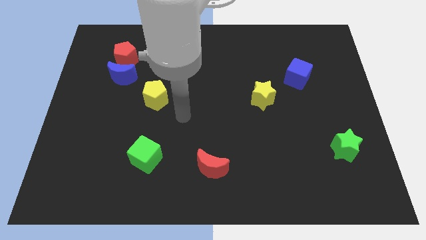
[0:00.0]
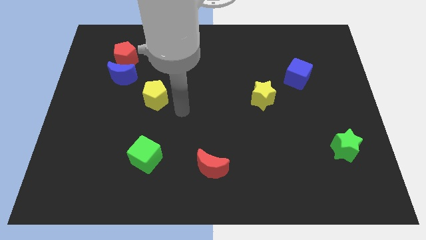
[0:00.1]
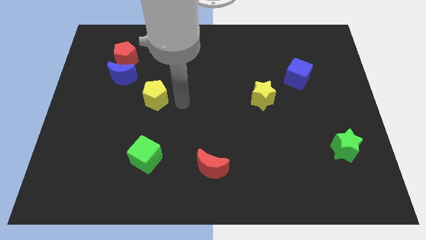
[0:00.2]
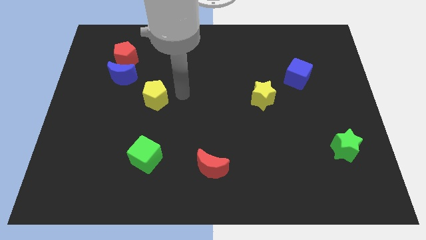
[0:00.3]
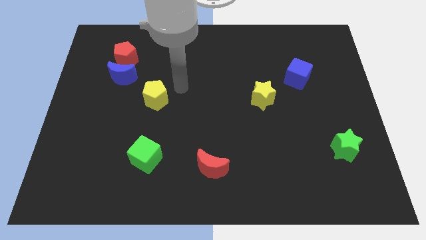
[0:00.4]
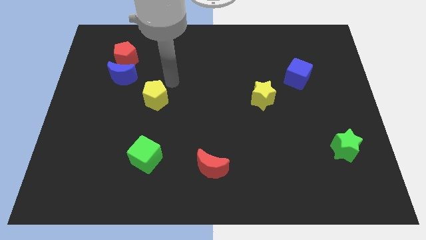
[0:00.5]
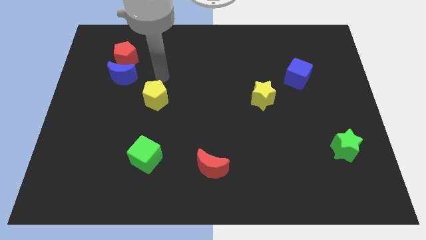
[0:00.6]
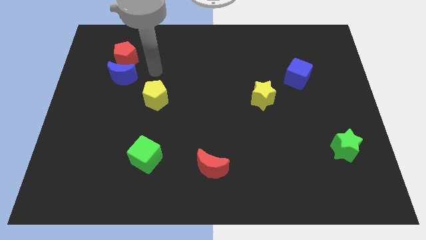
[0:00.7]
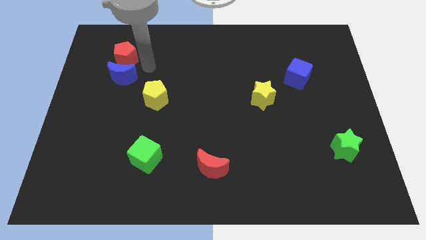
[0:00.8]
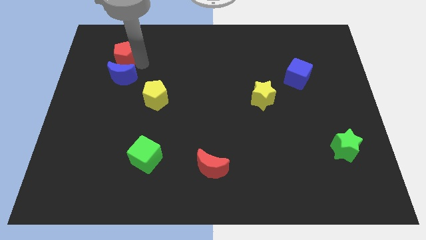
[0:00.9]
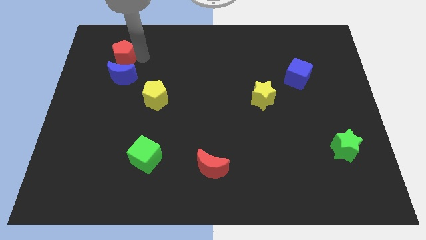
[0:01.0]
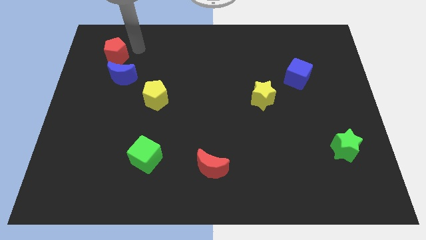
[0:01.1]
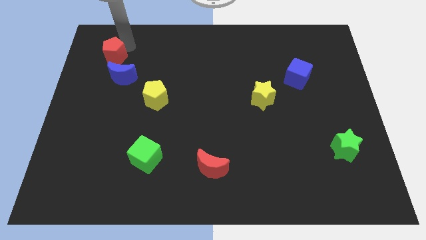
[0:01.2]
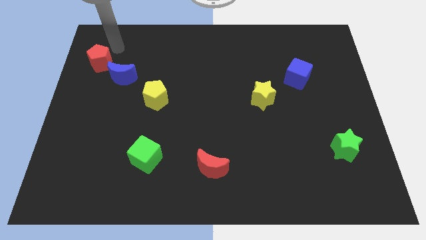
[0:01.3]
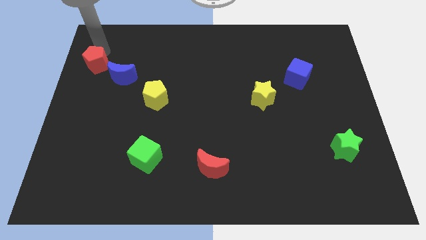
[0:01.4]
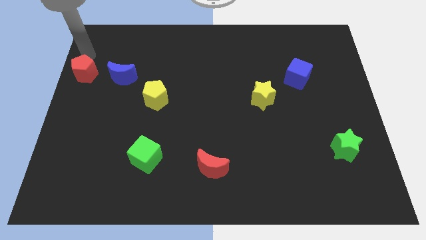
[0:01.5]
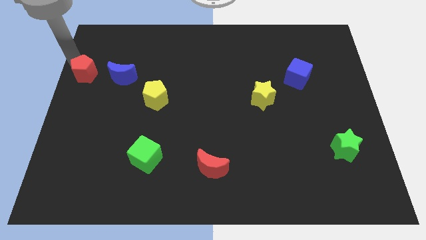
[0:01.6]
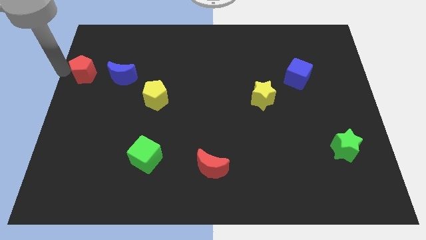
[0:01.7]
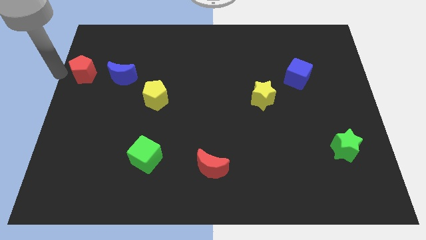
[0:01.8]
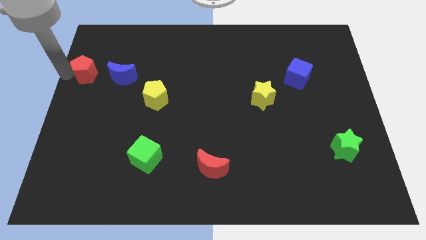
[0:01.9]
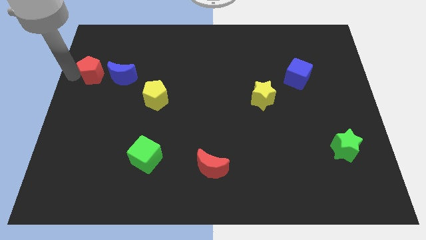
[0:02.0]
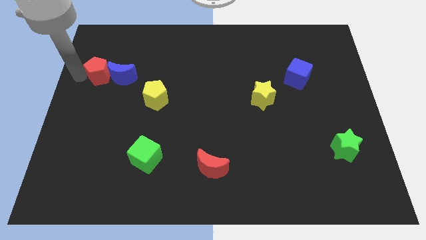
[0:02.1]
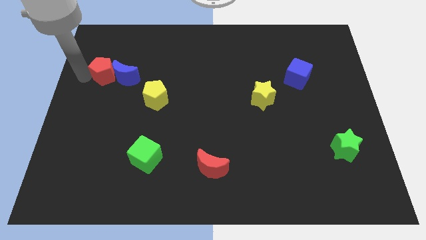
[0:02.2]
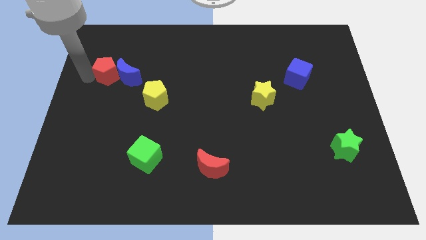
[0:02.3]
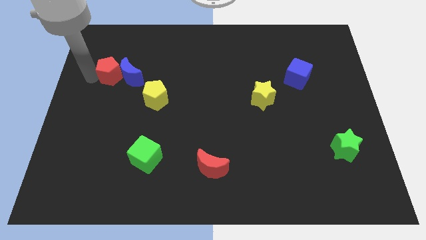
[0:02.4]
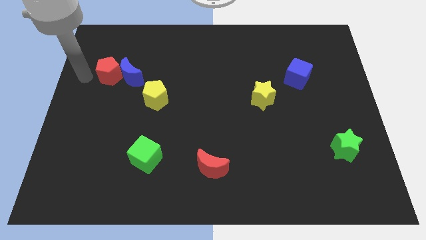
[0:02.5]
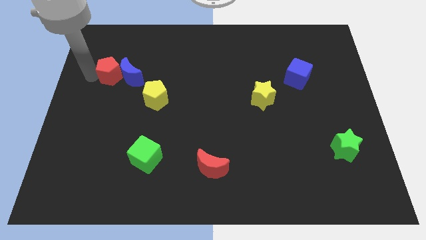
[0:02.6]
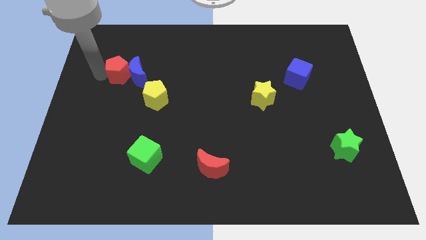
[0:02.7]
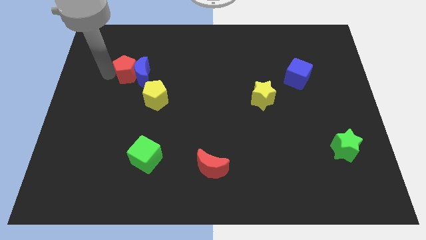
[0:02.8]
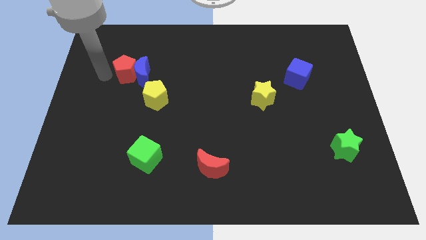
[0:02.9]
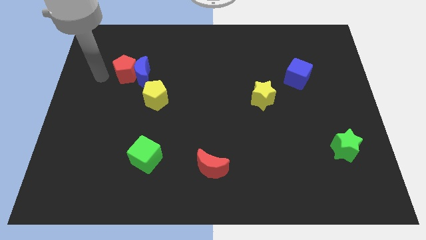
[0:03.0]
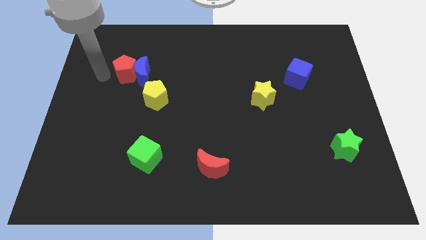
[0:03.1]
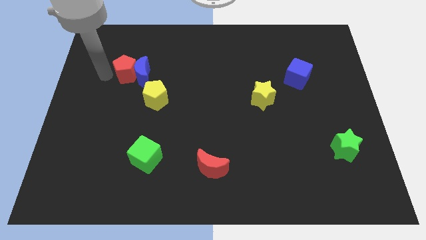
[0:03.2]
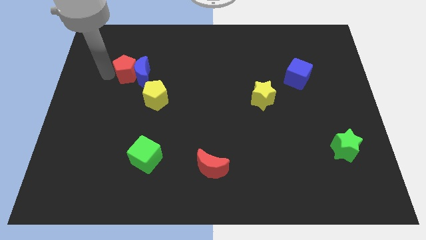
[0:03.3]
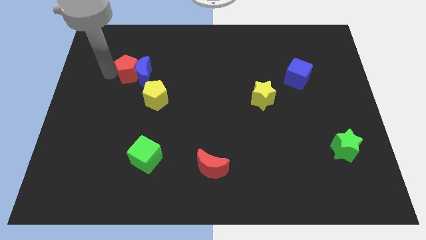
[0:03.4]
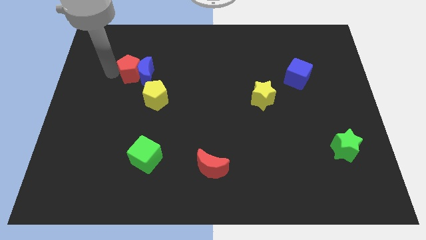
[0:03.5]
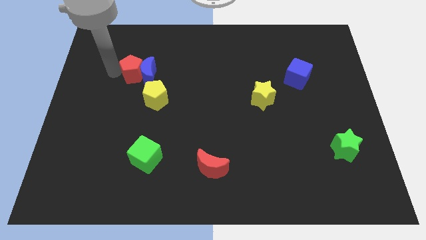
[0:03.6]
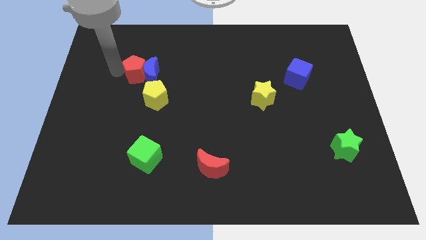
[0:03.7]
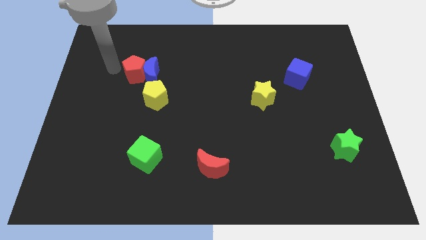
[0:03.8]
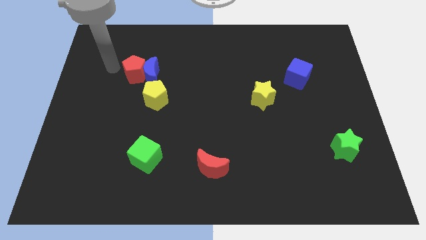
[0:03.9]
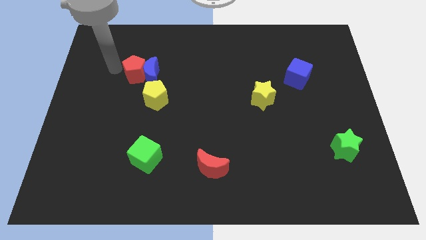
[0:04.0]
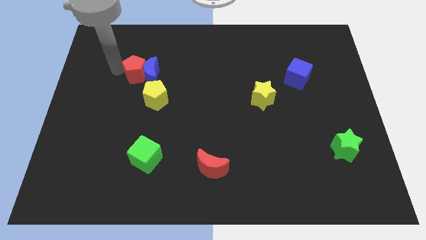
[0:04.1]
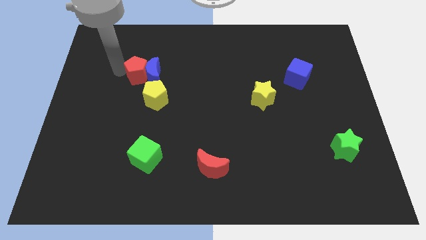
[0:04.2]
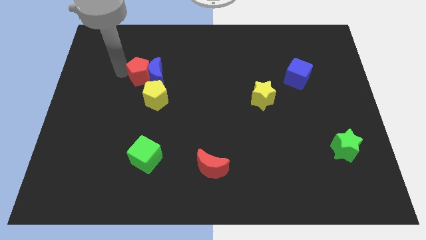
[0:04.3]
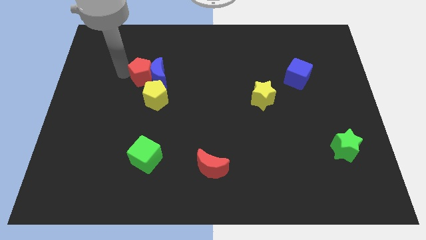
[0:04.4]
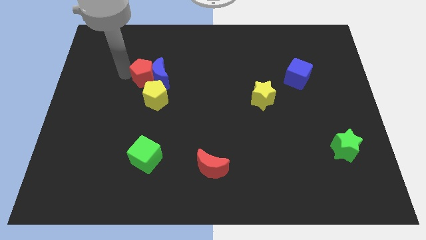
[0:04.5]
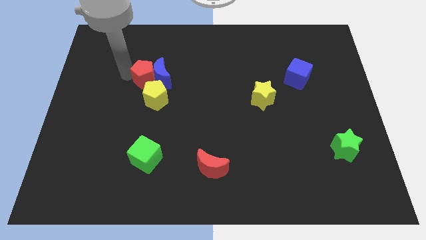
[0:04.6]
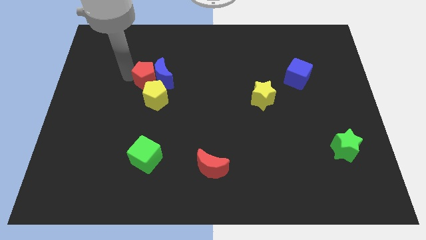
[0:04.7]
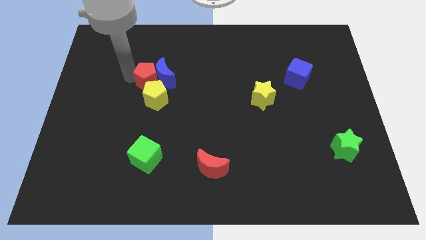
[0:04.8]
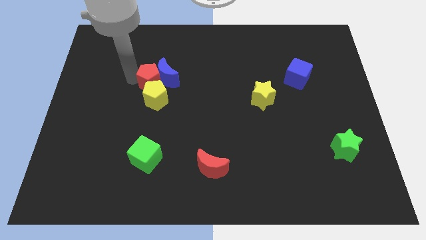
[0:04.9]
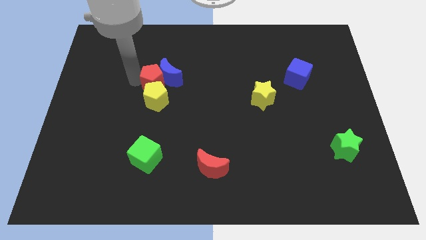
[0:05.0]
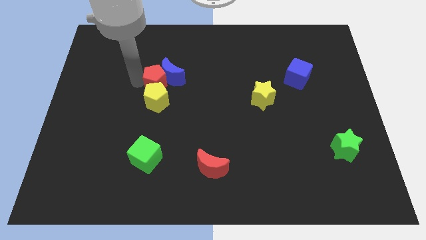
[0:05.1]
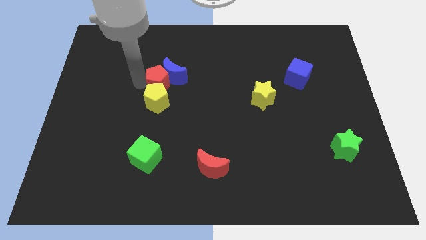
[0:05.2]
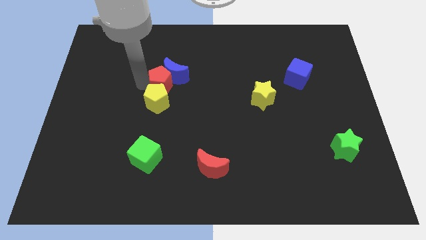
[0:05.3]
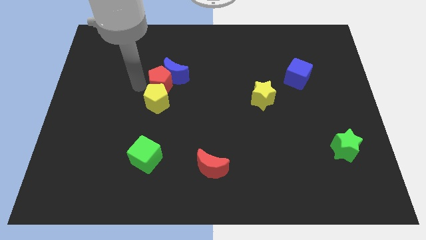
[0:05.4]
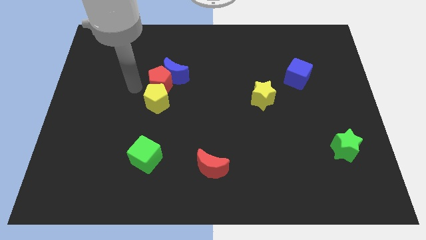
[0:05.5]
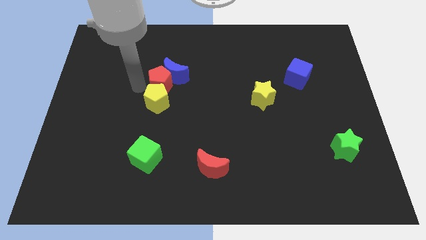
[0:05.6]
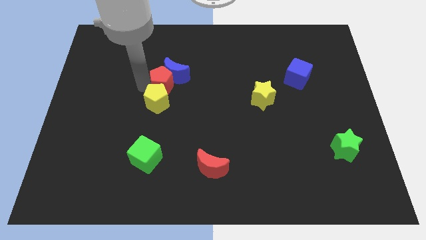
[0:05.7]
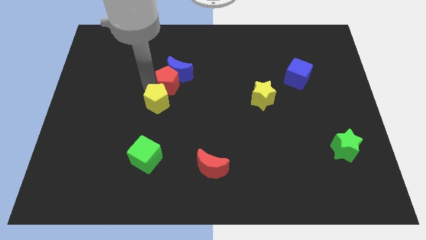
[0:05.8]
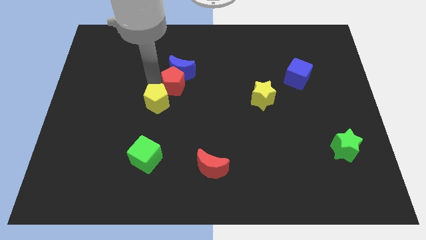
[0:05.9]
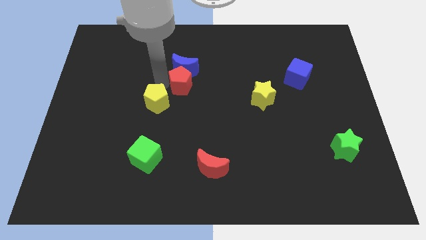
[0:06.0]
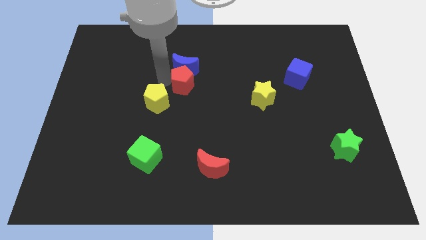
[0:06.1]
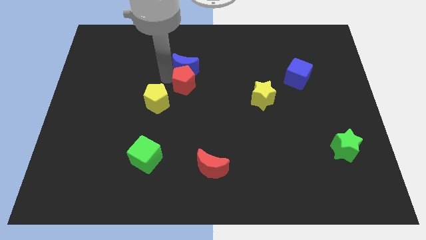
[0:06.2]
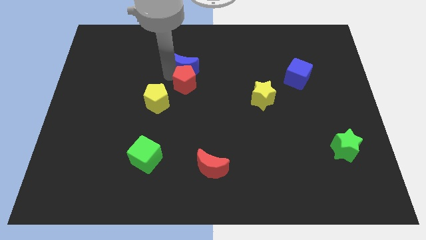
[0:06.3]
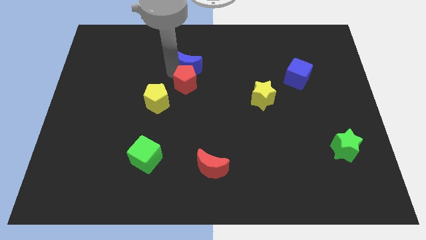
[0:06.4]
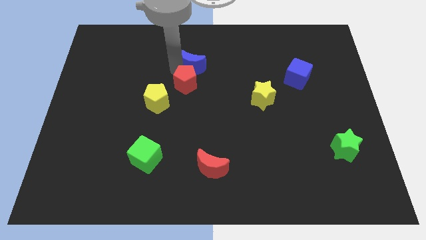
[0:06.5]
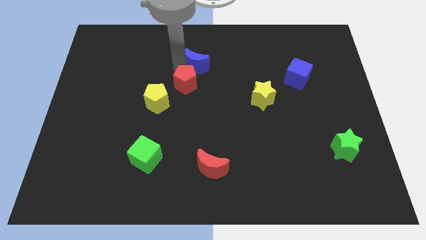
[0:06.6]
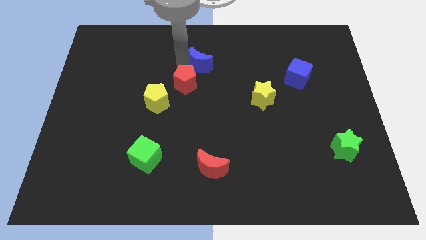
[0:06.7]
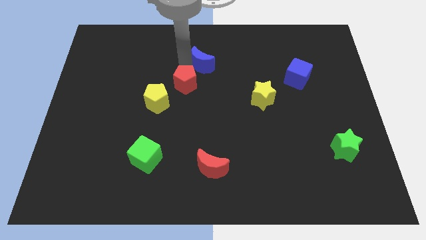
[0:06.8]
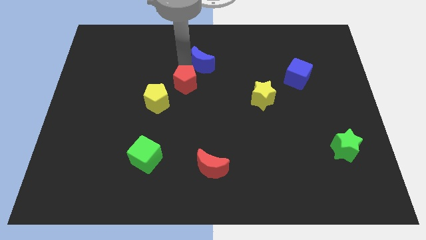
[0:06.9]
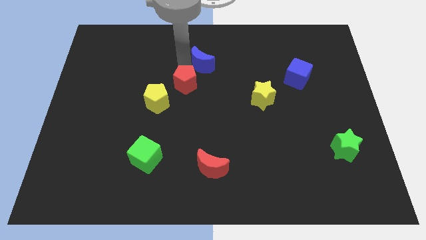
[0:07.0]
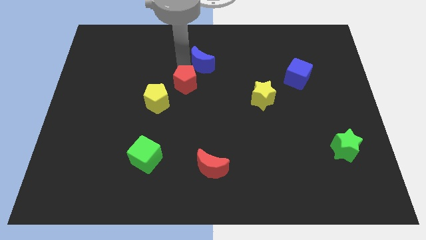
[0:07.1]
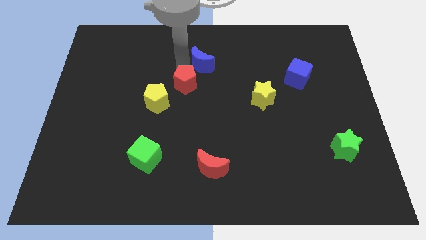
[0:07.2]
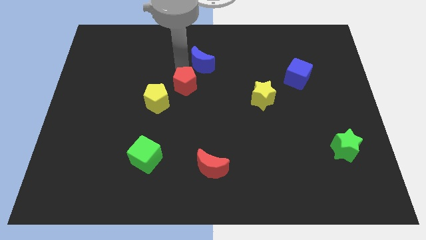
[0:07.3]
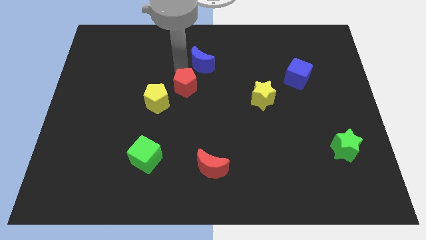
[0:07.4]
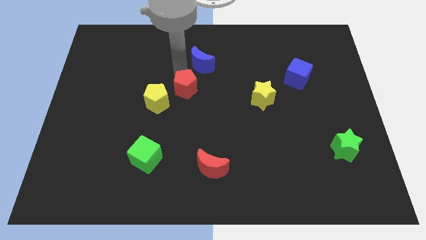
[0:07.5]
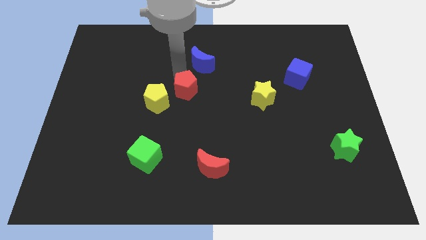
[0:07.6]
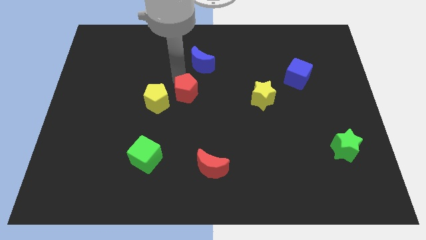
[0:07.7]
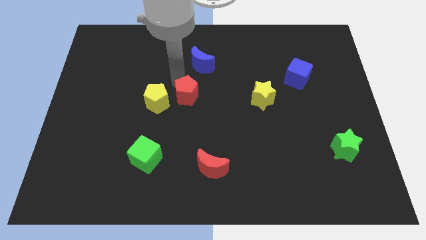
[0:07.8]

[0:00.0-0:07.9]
move the red pentagon down and then right
